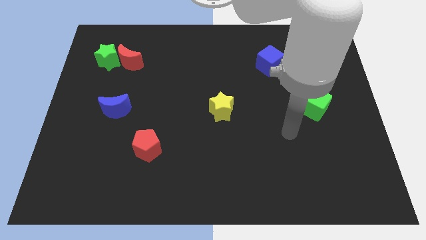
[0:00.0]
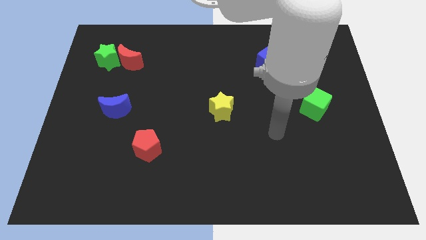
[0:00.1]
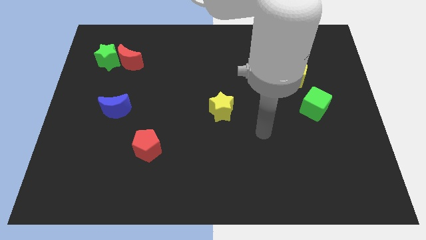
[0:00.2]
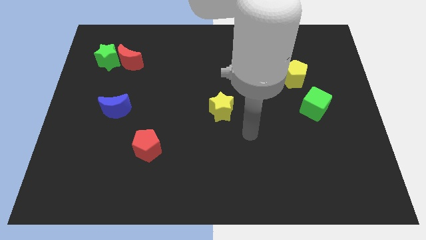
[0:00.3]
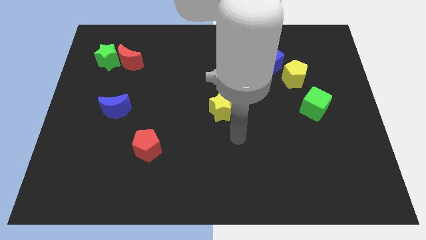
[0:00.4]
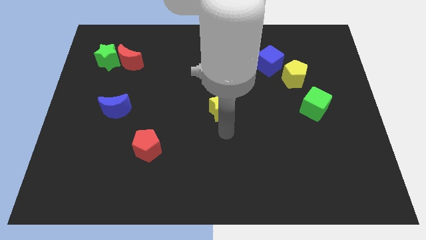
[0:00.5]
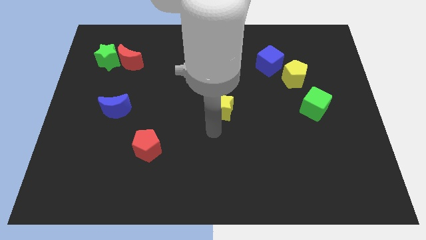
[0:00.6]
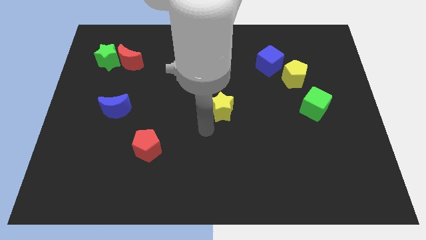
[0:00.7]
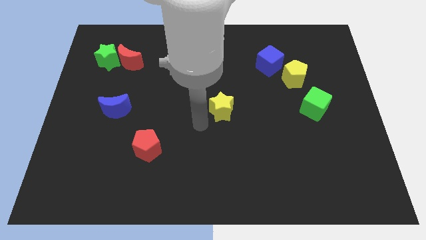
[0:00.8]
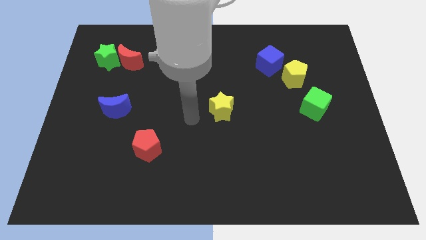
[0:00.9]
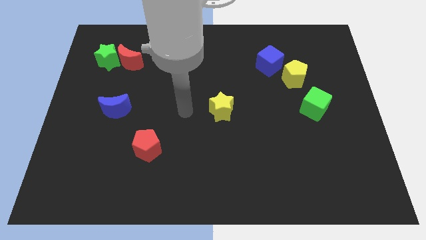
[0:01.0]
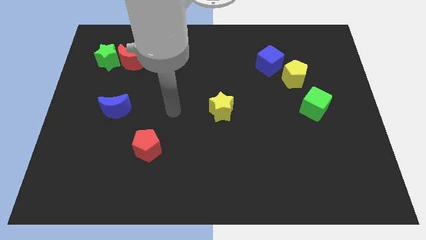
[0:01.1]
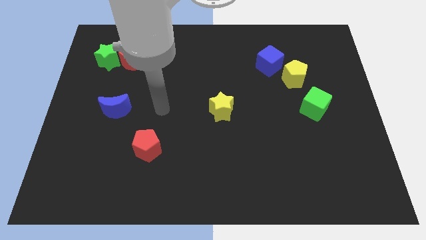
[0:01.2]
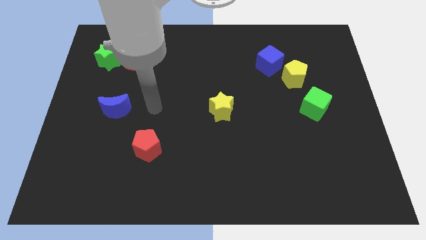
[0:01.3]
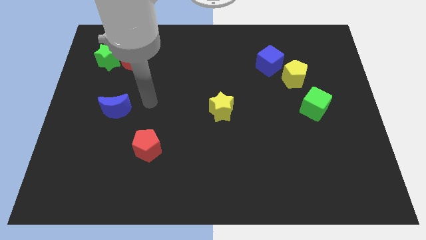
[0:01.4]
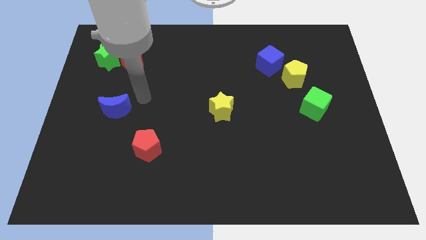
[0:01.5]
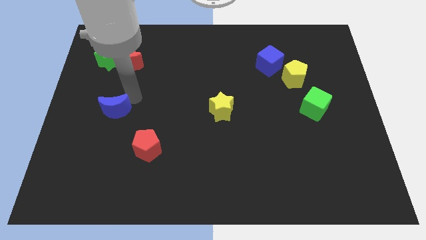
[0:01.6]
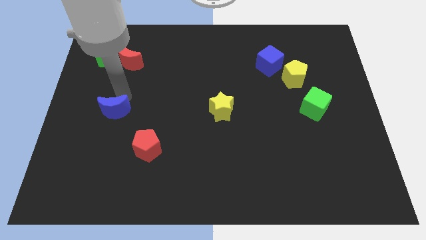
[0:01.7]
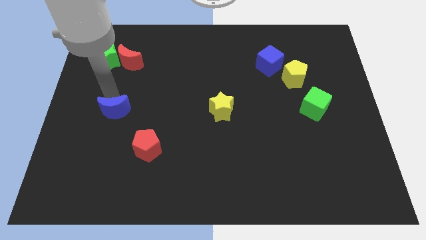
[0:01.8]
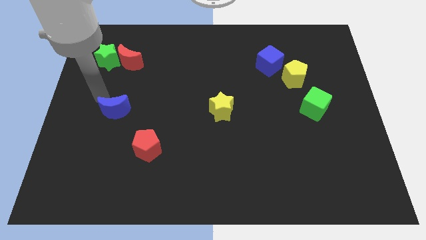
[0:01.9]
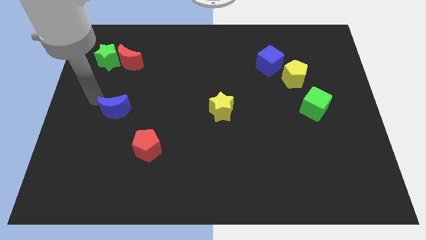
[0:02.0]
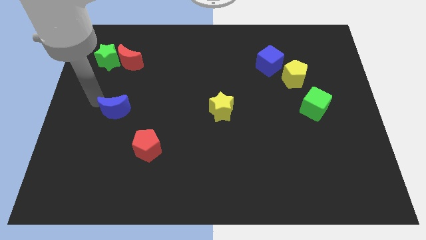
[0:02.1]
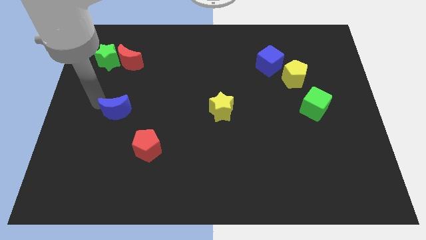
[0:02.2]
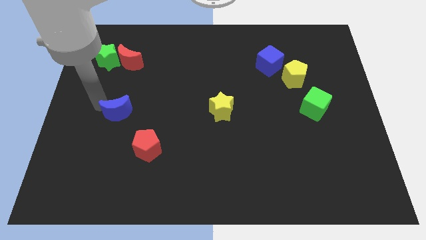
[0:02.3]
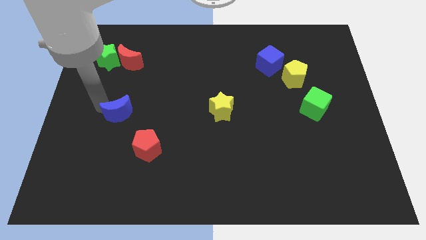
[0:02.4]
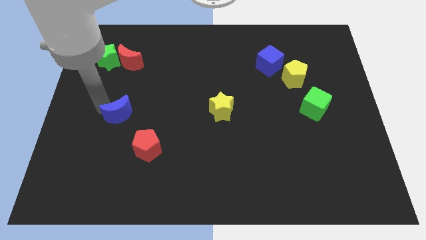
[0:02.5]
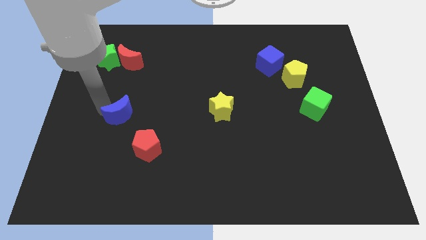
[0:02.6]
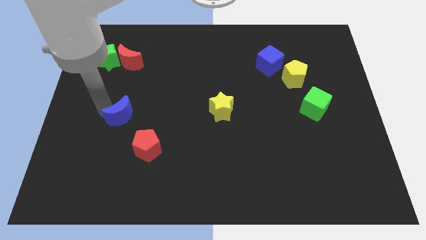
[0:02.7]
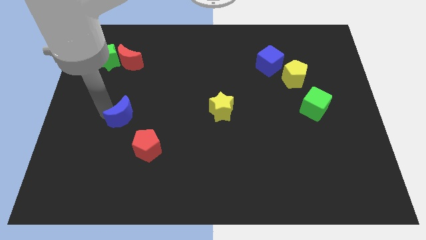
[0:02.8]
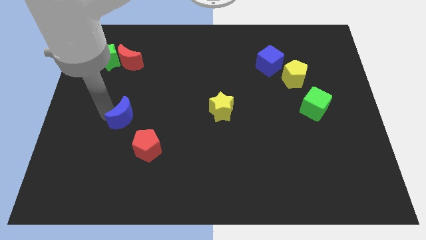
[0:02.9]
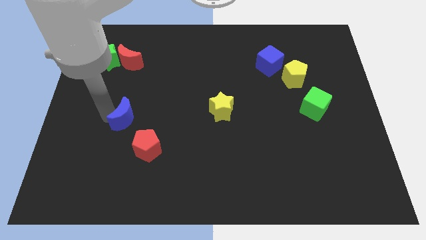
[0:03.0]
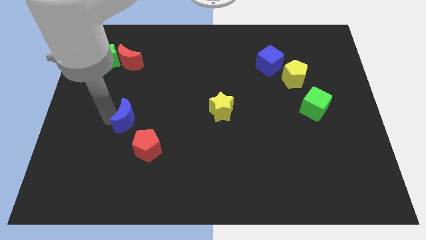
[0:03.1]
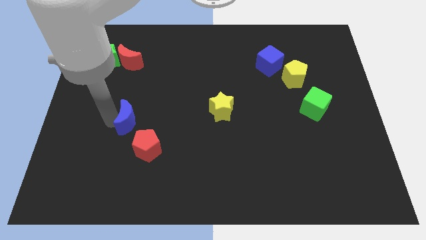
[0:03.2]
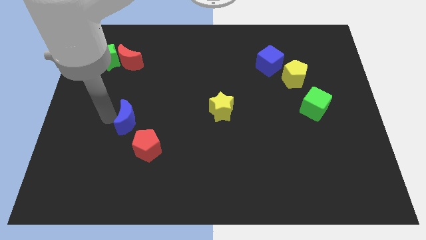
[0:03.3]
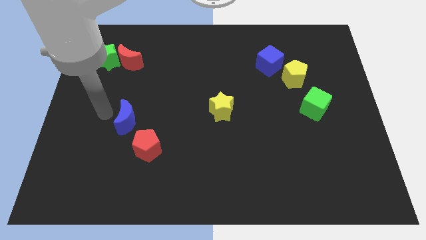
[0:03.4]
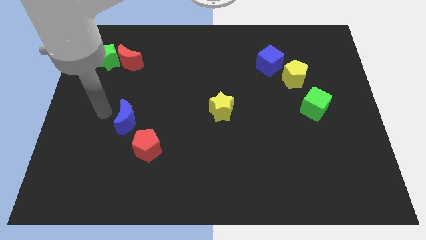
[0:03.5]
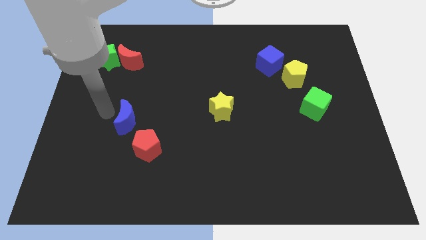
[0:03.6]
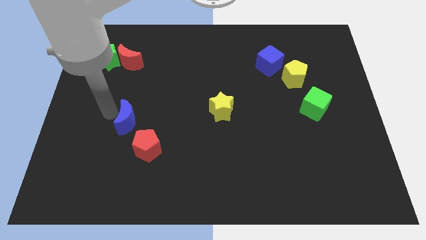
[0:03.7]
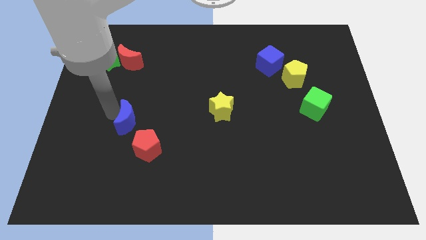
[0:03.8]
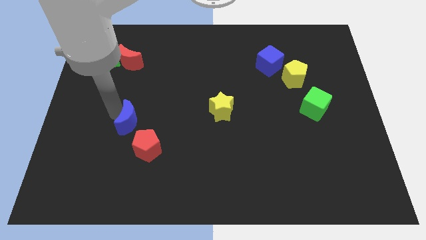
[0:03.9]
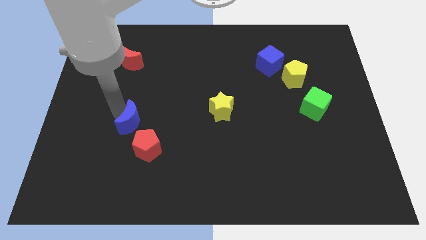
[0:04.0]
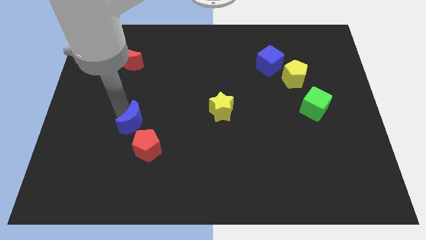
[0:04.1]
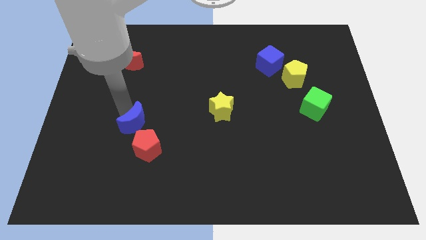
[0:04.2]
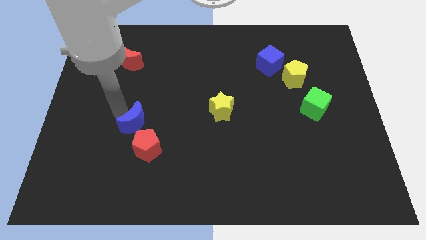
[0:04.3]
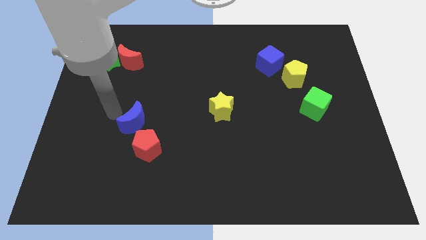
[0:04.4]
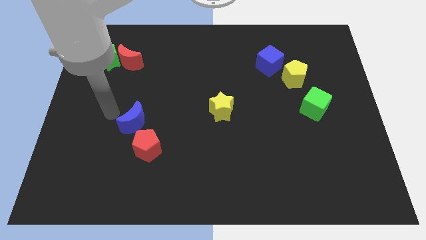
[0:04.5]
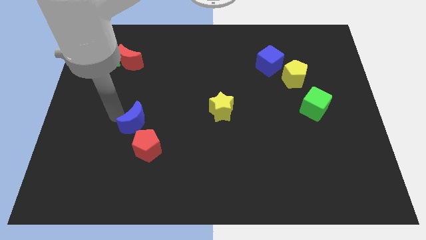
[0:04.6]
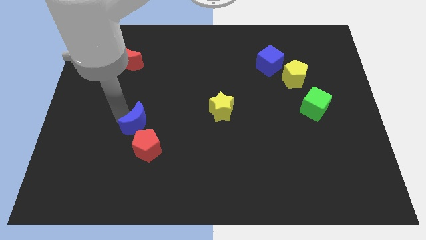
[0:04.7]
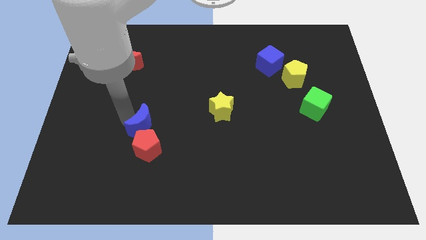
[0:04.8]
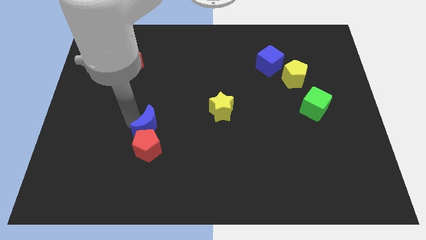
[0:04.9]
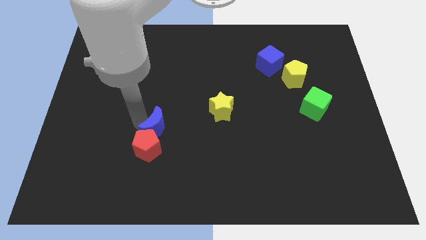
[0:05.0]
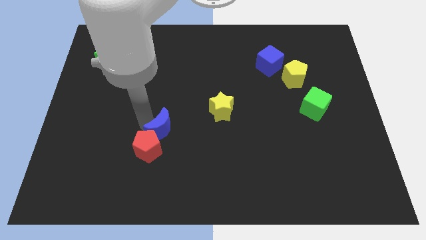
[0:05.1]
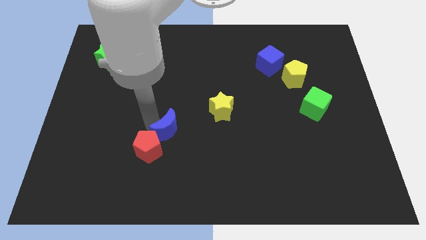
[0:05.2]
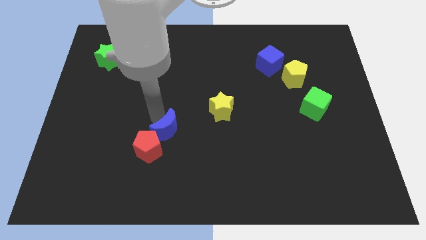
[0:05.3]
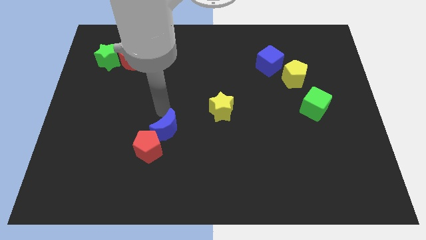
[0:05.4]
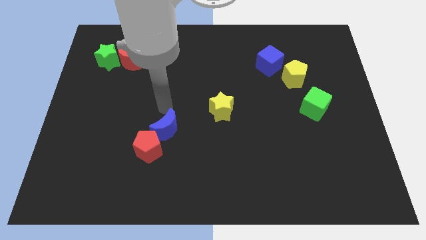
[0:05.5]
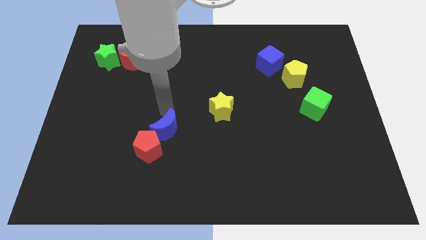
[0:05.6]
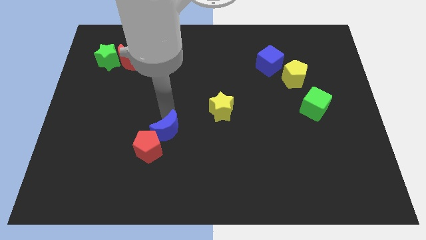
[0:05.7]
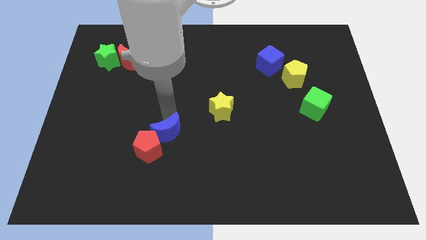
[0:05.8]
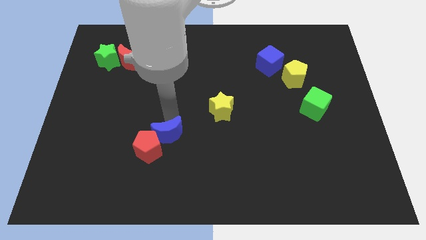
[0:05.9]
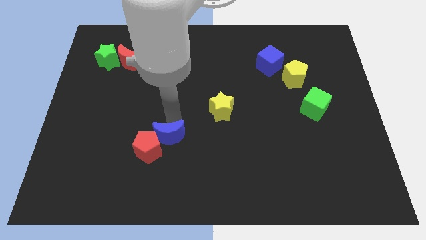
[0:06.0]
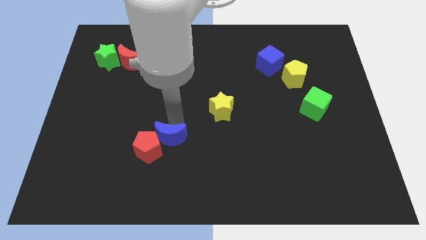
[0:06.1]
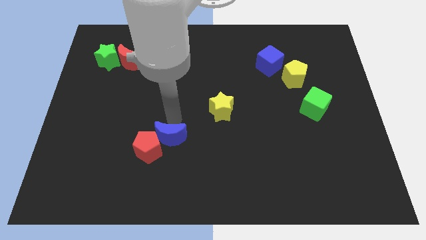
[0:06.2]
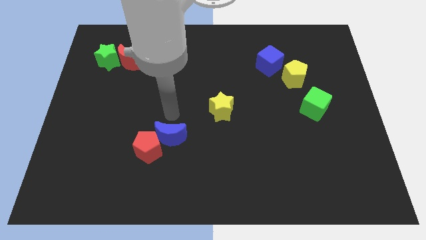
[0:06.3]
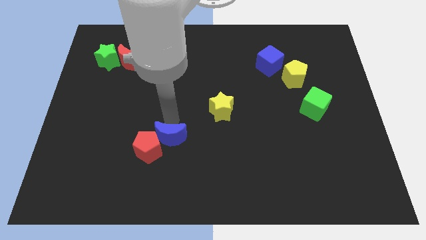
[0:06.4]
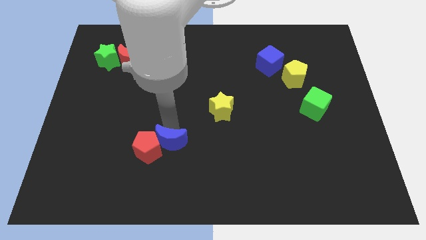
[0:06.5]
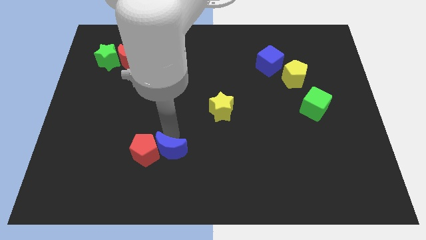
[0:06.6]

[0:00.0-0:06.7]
put the blue moon to the bottom right of the red pentagon
